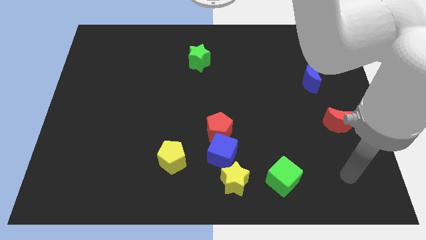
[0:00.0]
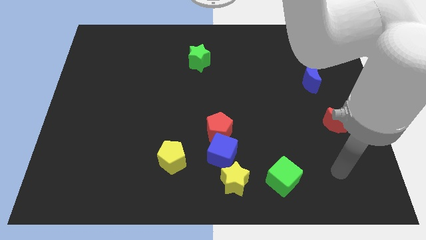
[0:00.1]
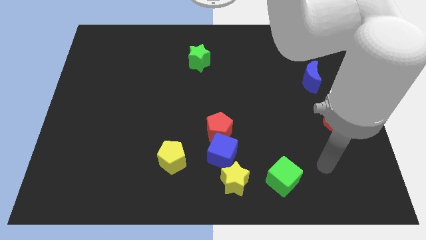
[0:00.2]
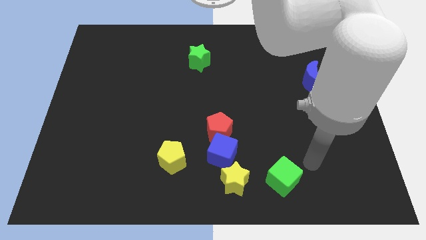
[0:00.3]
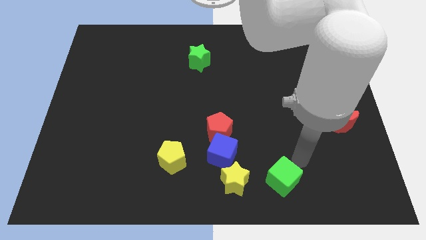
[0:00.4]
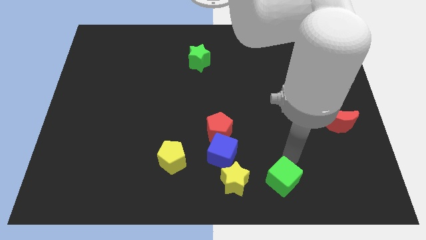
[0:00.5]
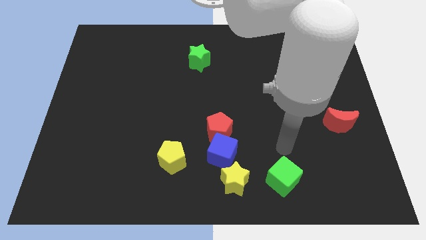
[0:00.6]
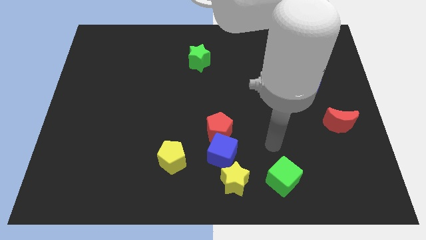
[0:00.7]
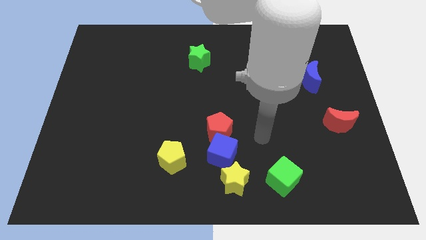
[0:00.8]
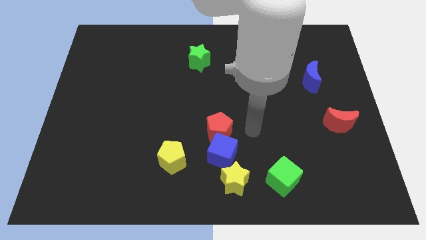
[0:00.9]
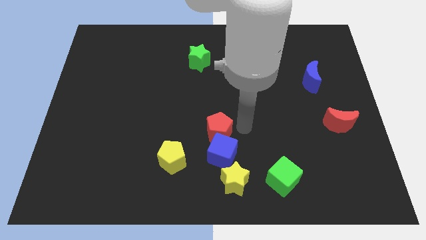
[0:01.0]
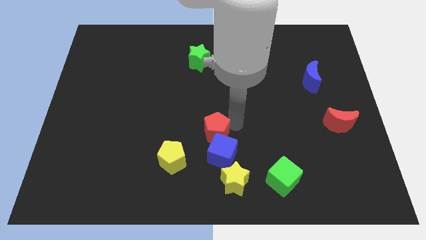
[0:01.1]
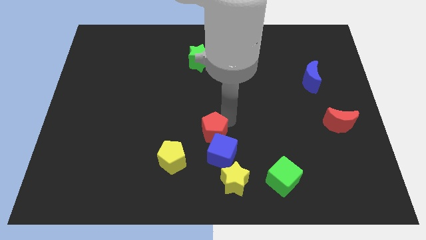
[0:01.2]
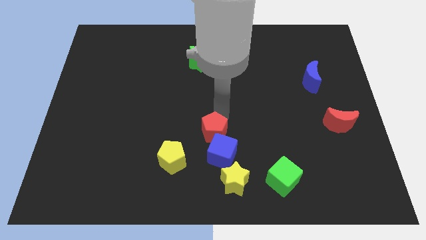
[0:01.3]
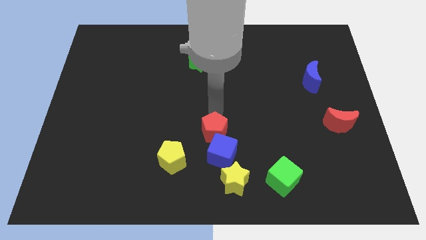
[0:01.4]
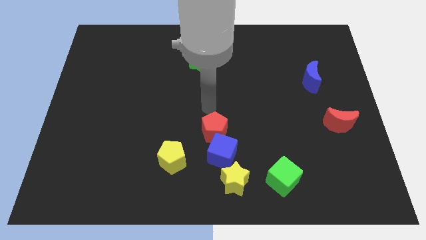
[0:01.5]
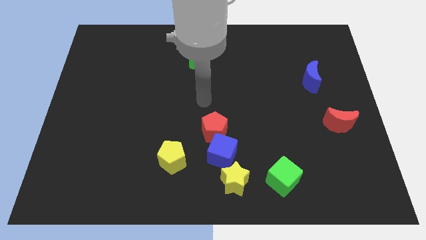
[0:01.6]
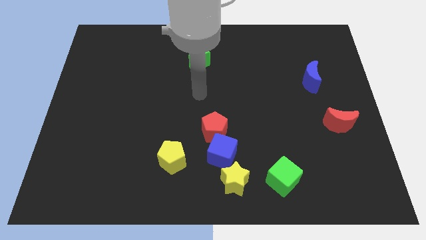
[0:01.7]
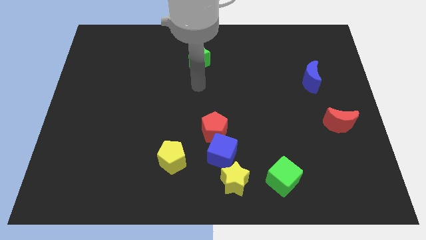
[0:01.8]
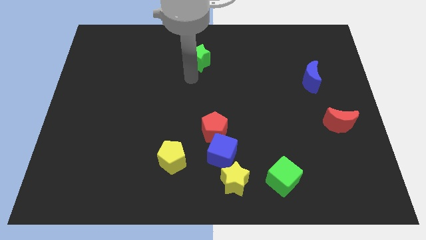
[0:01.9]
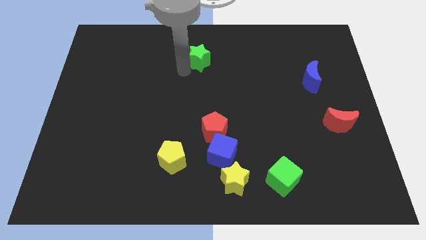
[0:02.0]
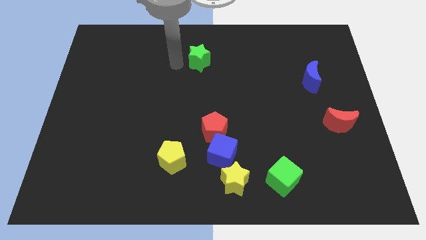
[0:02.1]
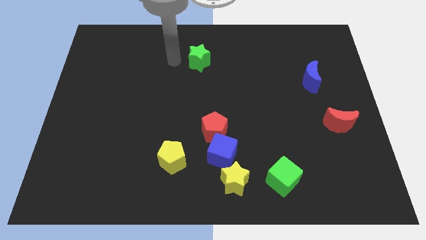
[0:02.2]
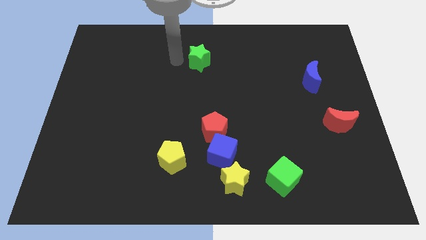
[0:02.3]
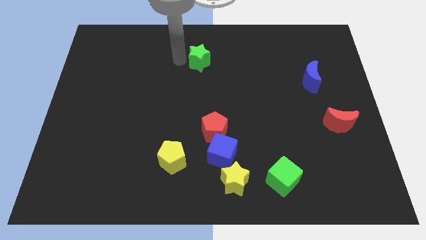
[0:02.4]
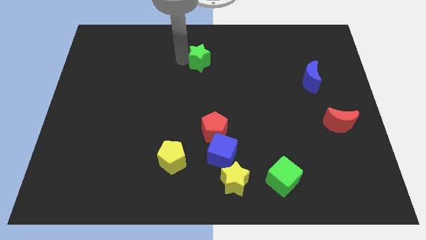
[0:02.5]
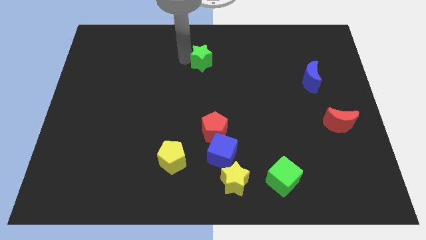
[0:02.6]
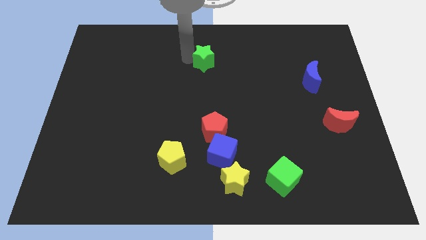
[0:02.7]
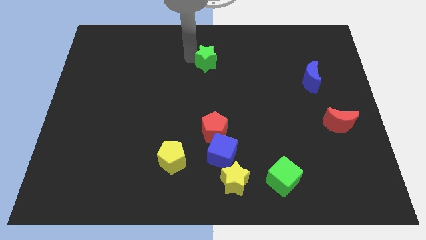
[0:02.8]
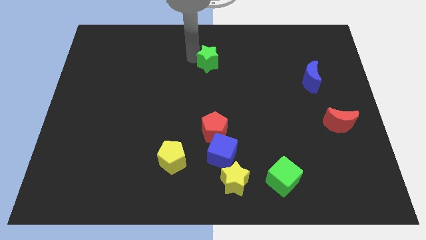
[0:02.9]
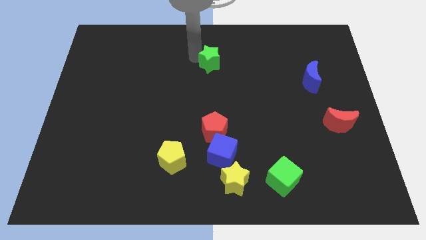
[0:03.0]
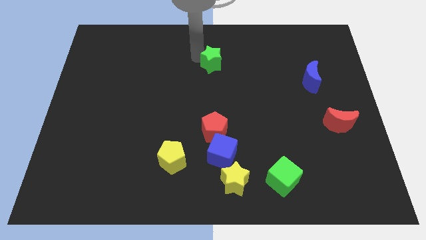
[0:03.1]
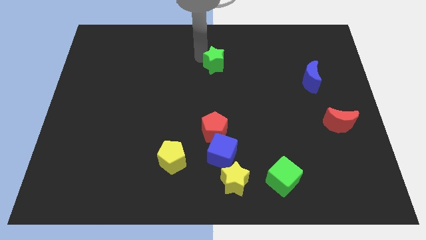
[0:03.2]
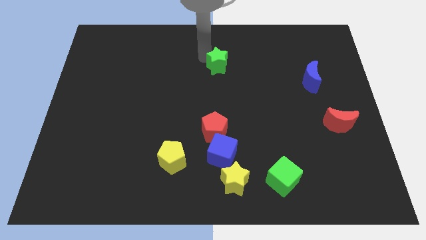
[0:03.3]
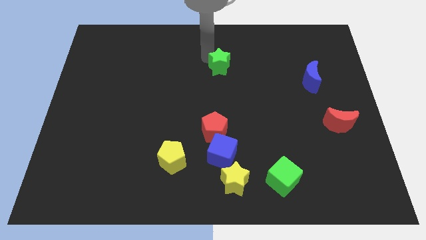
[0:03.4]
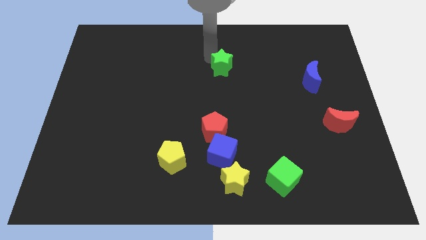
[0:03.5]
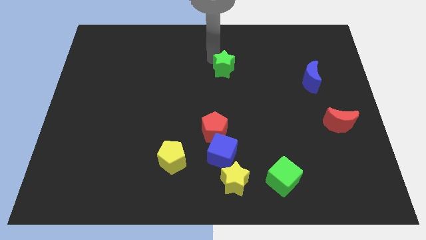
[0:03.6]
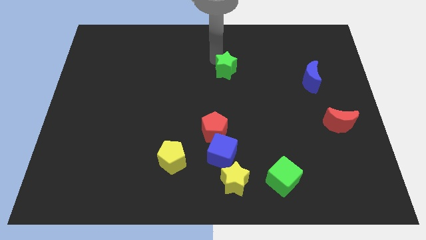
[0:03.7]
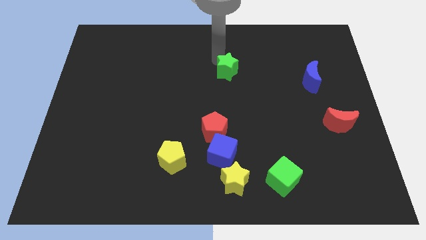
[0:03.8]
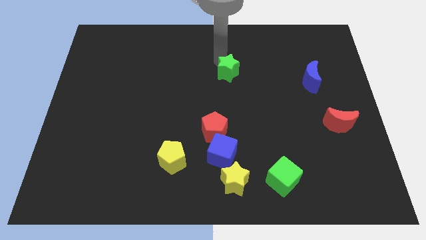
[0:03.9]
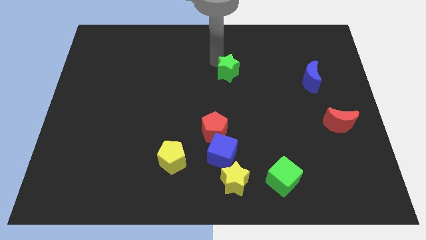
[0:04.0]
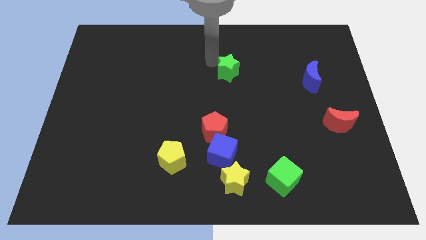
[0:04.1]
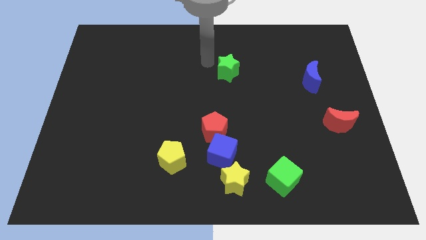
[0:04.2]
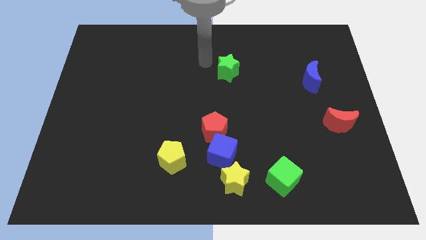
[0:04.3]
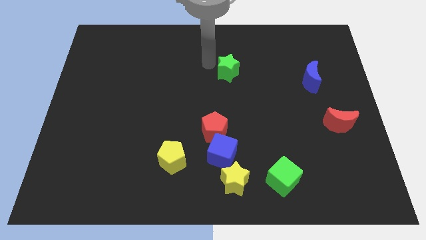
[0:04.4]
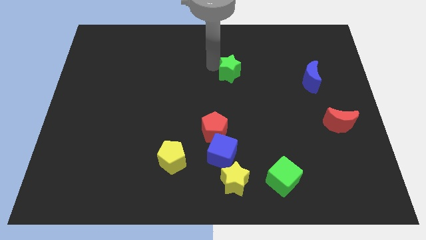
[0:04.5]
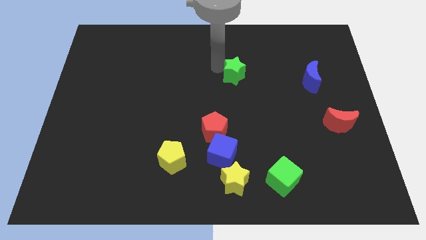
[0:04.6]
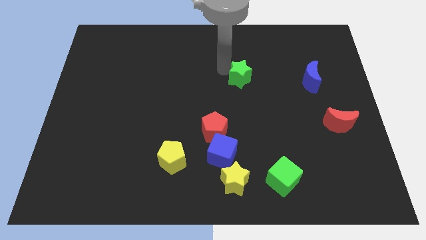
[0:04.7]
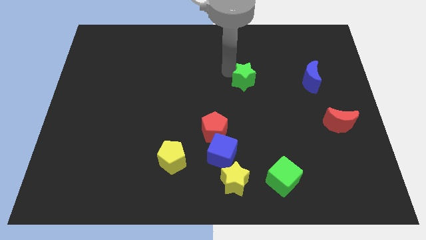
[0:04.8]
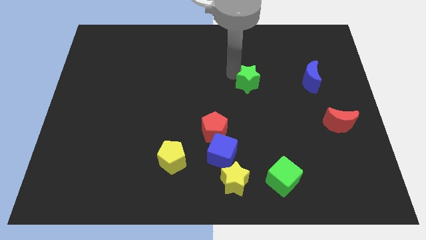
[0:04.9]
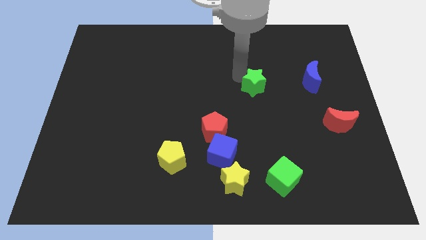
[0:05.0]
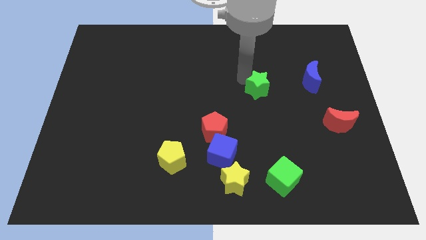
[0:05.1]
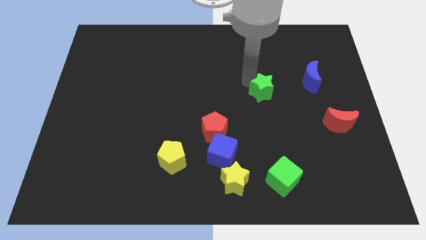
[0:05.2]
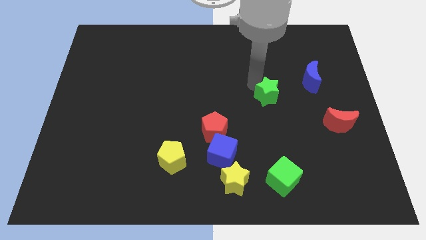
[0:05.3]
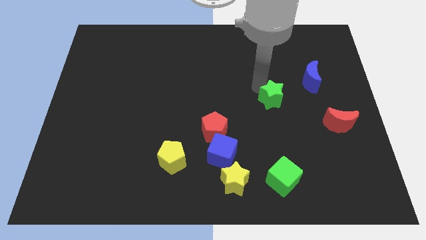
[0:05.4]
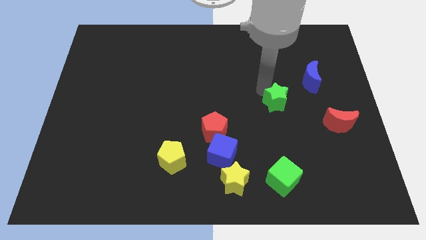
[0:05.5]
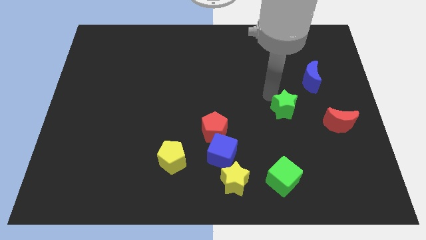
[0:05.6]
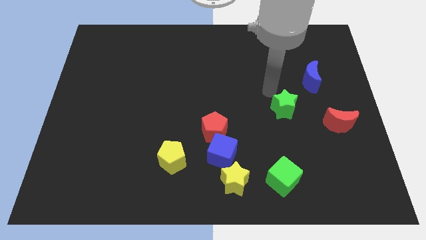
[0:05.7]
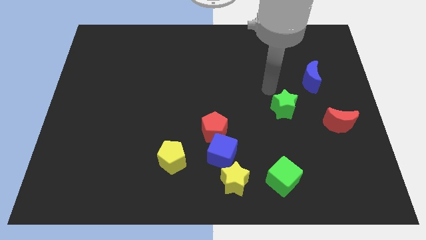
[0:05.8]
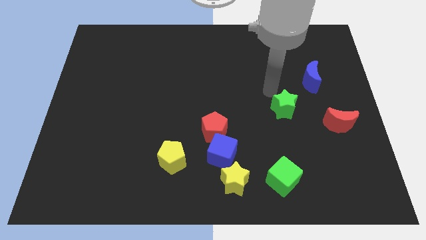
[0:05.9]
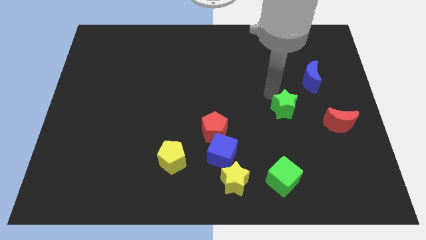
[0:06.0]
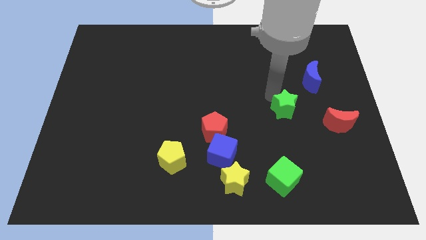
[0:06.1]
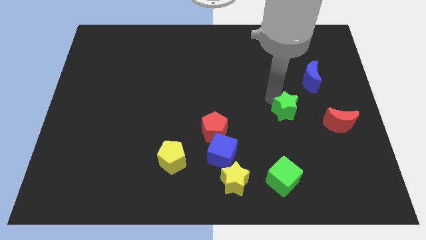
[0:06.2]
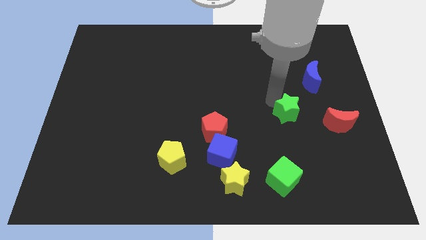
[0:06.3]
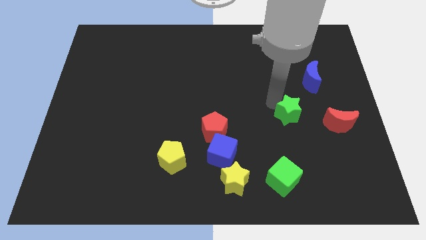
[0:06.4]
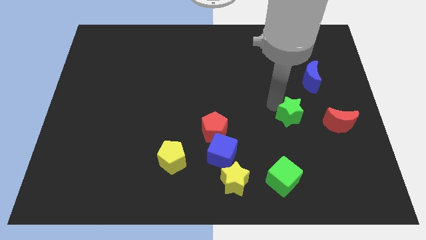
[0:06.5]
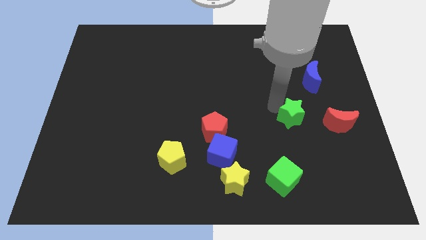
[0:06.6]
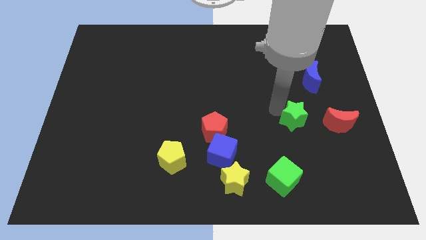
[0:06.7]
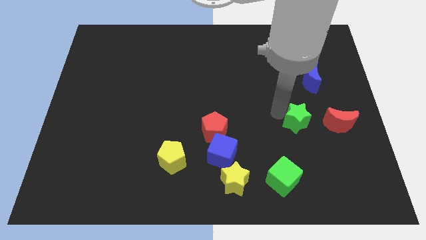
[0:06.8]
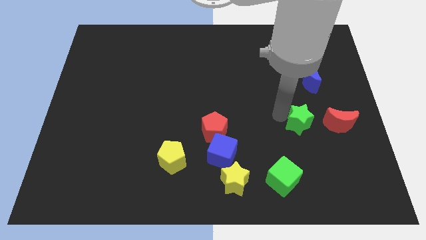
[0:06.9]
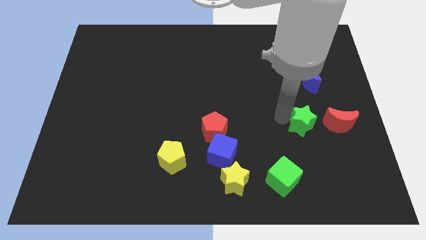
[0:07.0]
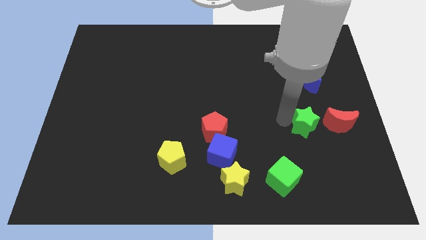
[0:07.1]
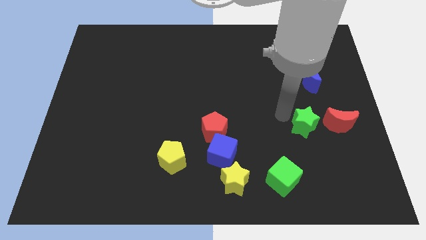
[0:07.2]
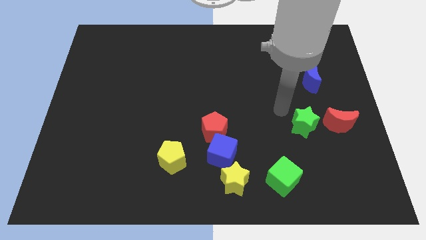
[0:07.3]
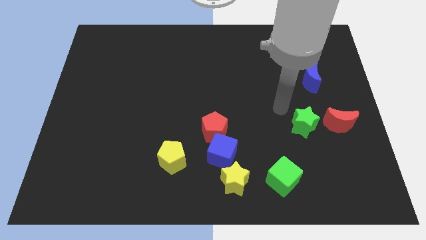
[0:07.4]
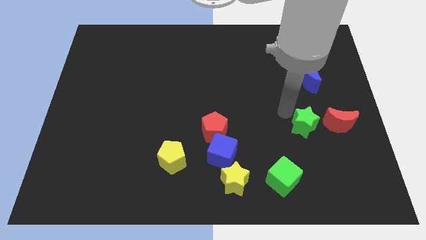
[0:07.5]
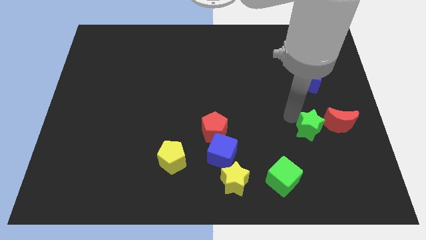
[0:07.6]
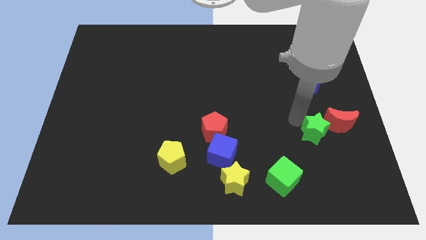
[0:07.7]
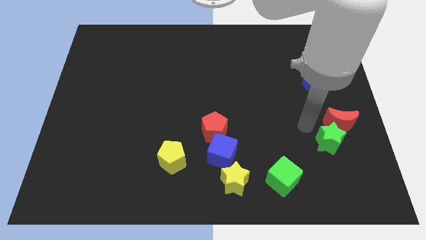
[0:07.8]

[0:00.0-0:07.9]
push the green star to the bottom side of the red moon
